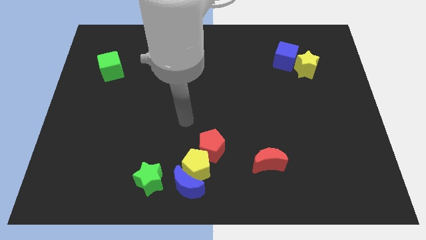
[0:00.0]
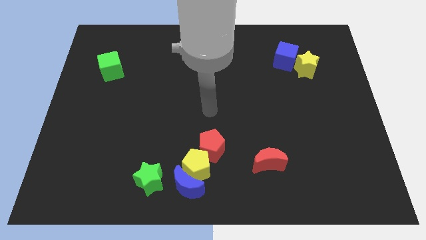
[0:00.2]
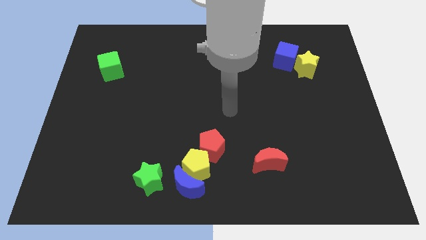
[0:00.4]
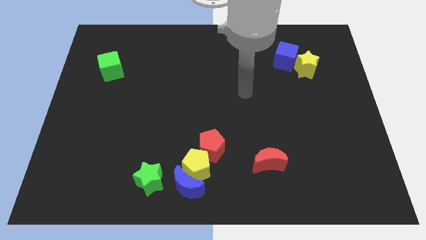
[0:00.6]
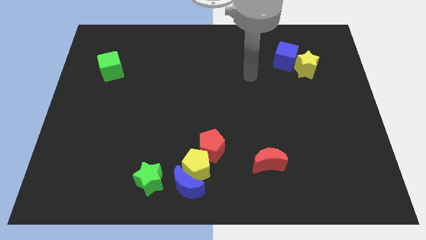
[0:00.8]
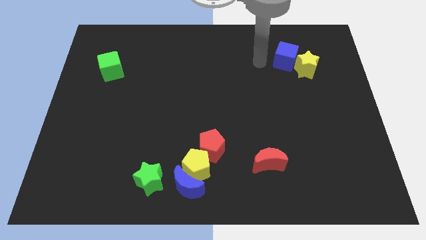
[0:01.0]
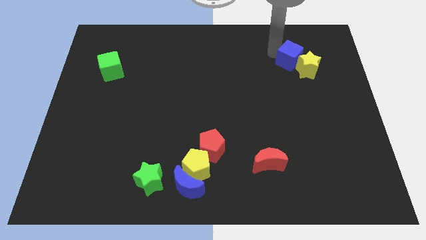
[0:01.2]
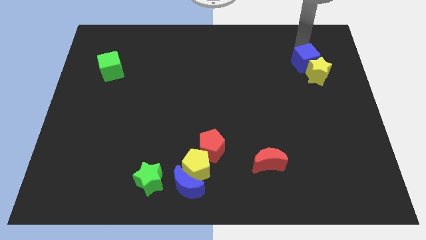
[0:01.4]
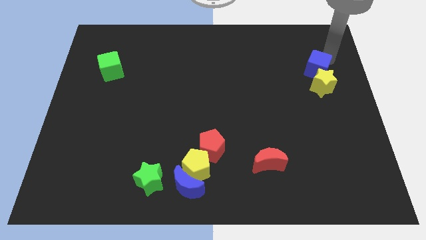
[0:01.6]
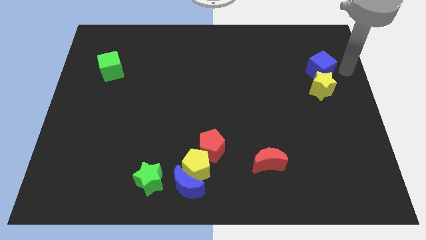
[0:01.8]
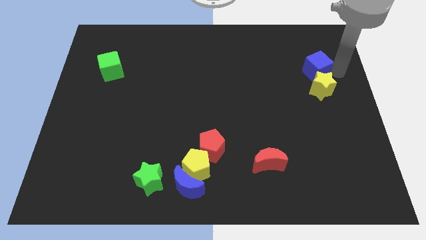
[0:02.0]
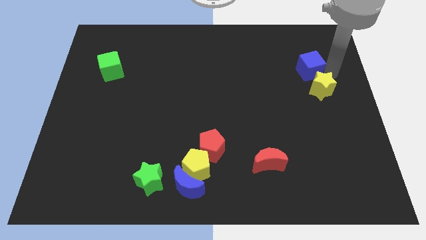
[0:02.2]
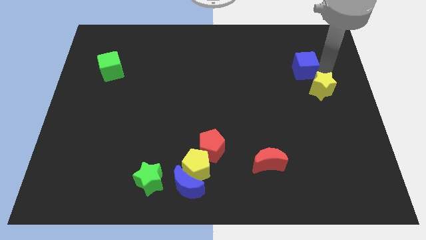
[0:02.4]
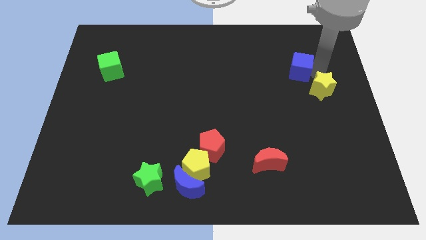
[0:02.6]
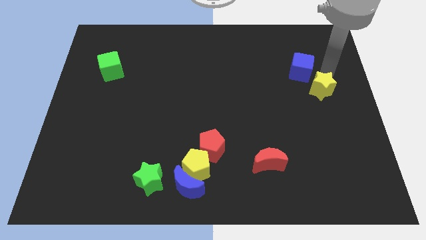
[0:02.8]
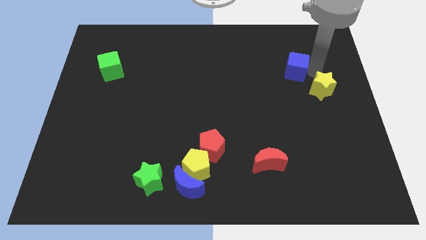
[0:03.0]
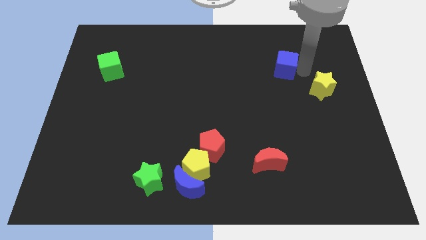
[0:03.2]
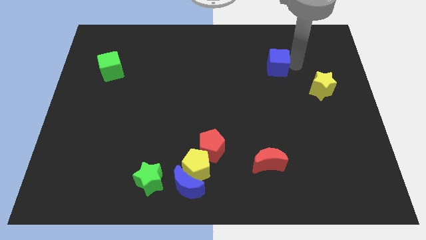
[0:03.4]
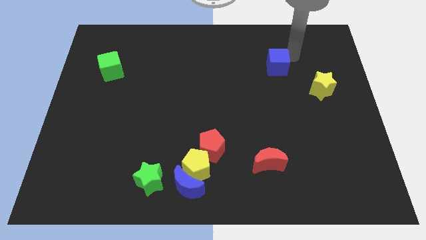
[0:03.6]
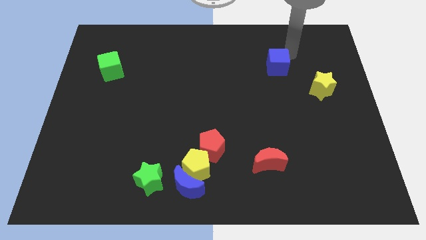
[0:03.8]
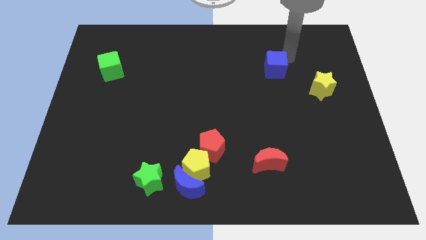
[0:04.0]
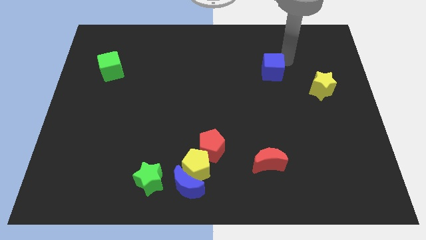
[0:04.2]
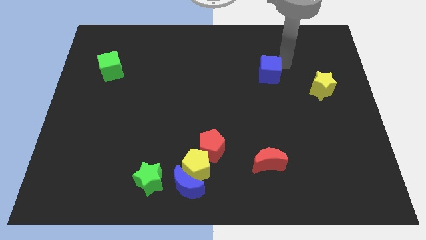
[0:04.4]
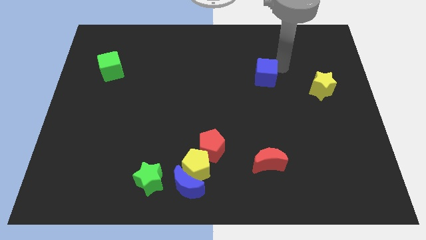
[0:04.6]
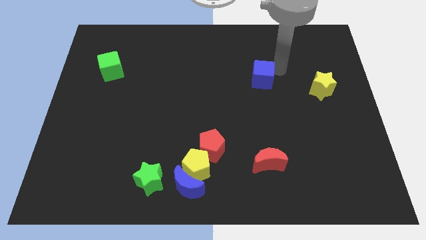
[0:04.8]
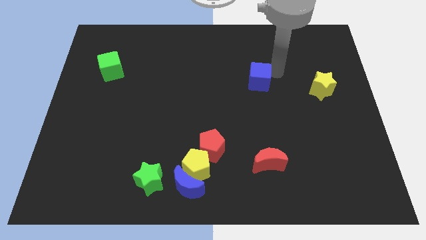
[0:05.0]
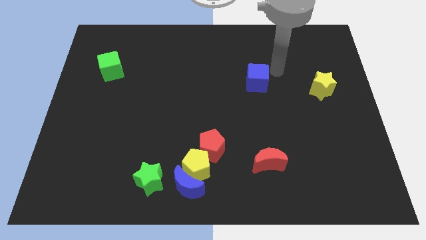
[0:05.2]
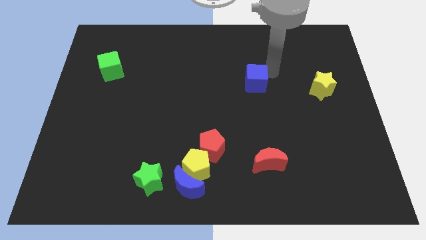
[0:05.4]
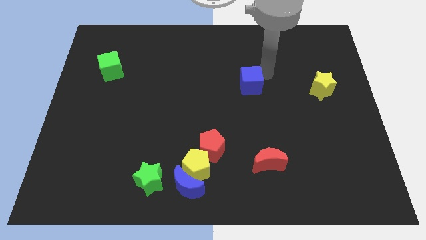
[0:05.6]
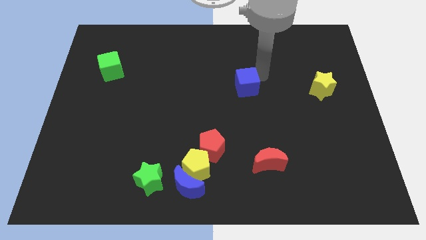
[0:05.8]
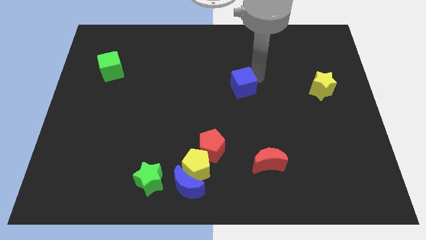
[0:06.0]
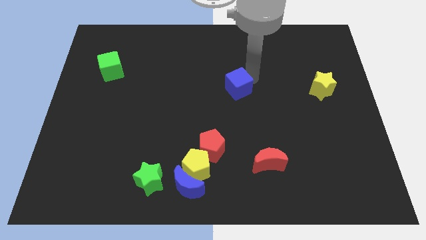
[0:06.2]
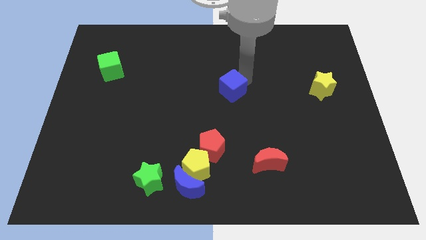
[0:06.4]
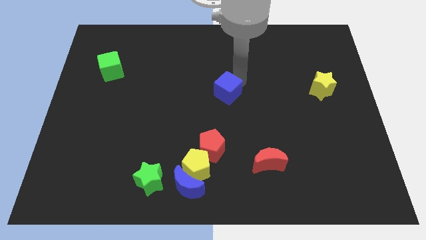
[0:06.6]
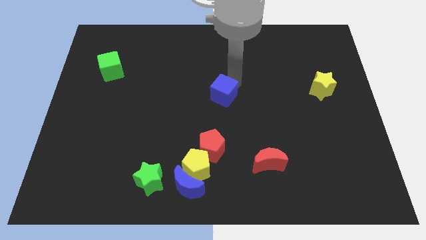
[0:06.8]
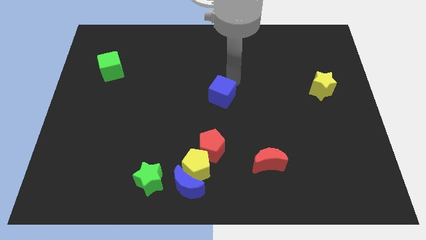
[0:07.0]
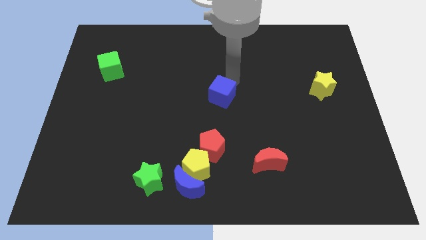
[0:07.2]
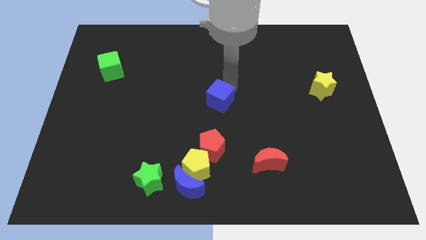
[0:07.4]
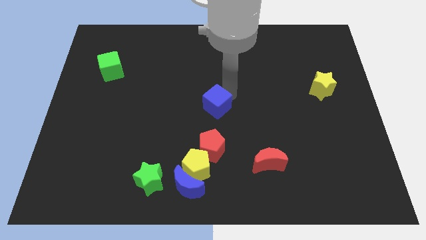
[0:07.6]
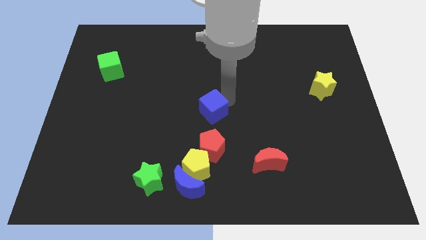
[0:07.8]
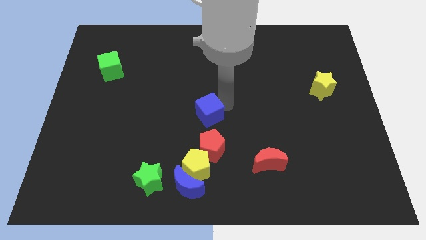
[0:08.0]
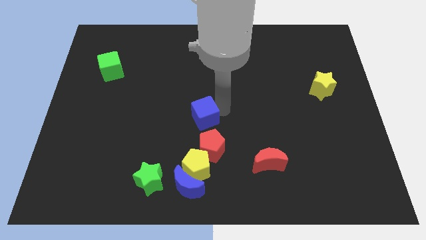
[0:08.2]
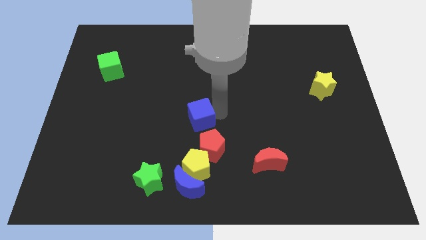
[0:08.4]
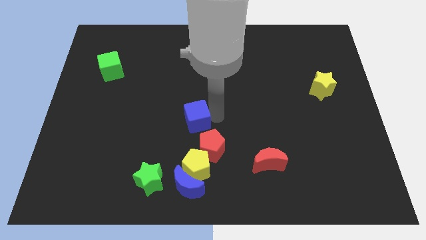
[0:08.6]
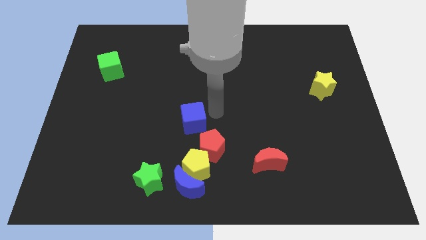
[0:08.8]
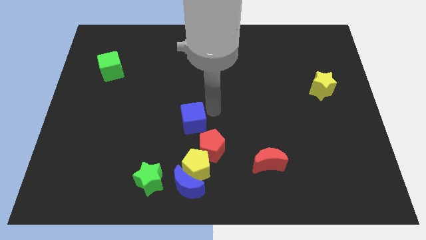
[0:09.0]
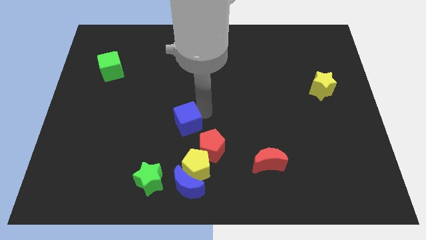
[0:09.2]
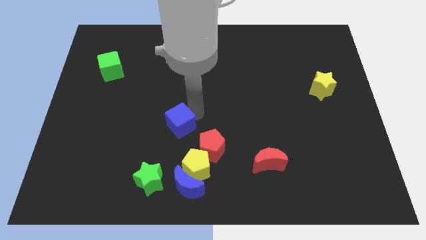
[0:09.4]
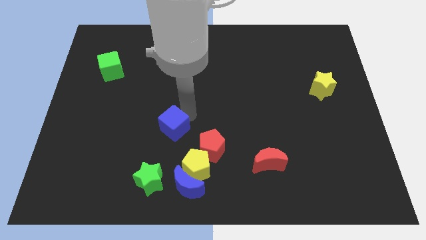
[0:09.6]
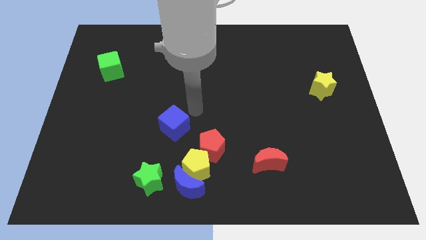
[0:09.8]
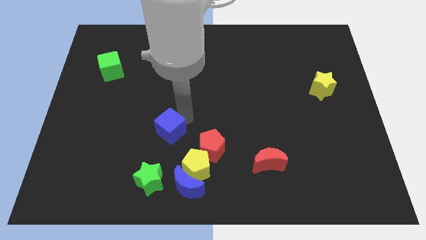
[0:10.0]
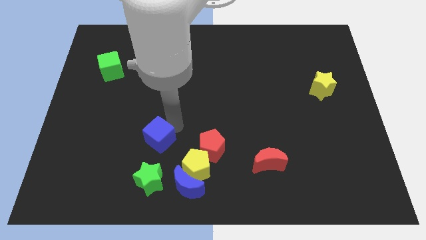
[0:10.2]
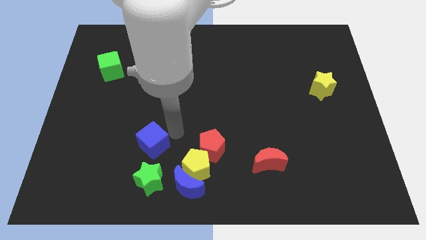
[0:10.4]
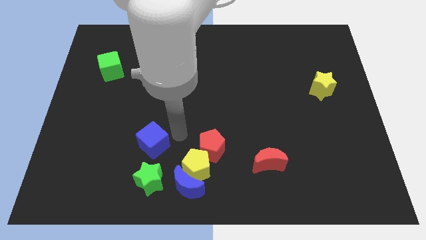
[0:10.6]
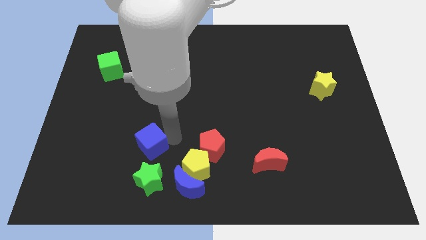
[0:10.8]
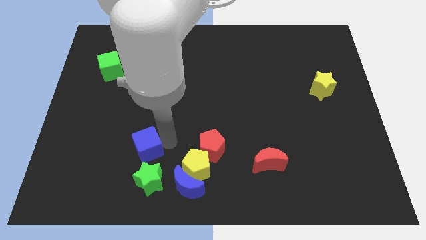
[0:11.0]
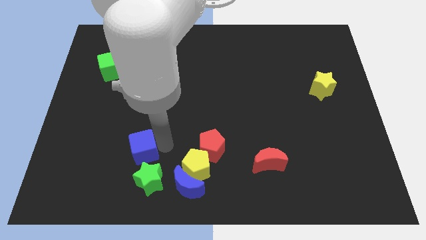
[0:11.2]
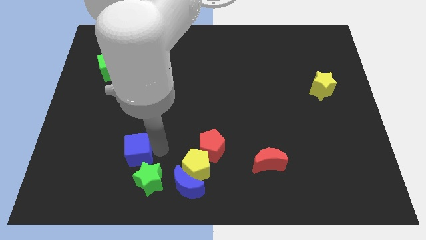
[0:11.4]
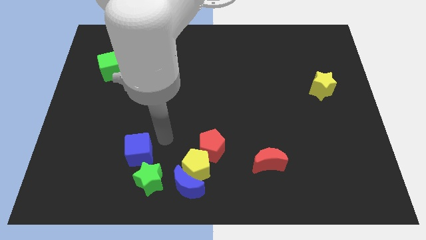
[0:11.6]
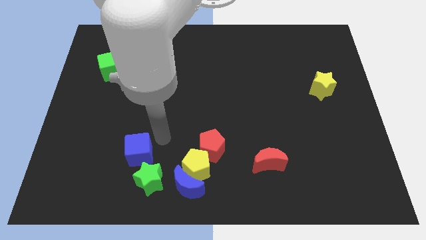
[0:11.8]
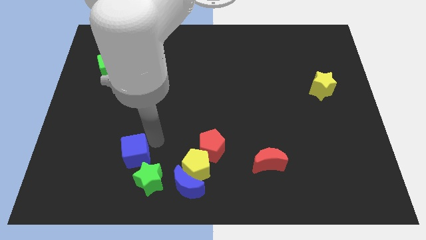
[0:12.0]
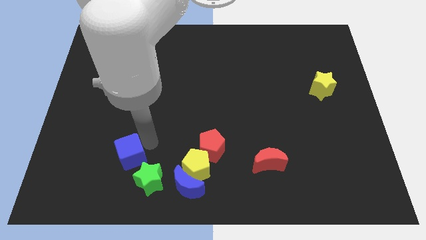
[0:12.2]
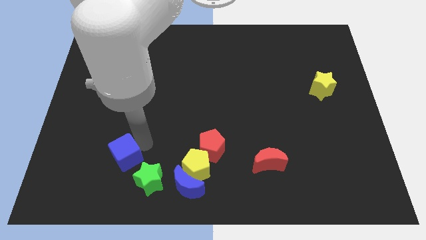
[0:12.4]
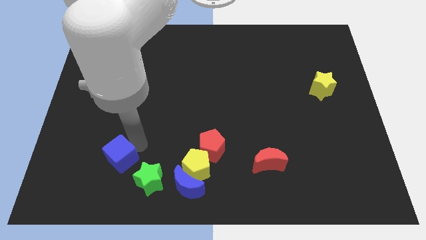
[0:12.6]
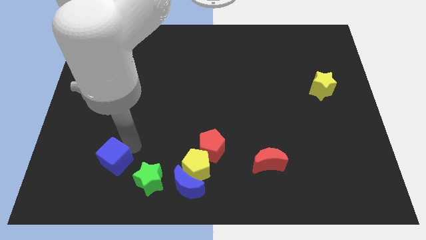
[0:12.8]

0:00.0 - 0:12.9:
put the blue cube to the left side of the green star

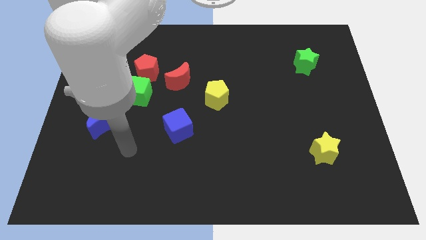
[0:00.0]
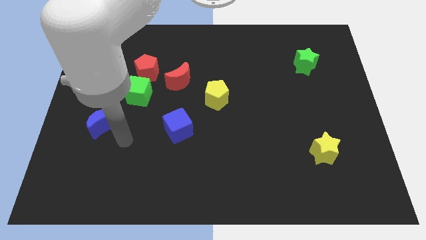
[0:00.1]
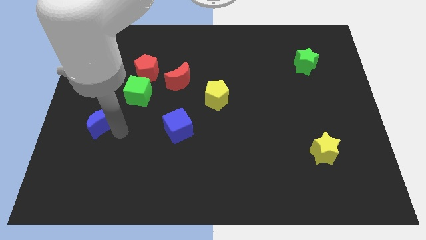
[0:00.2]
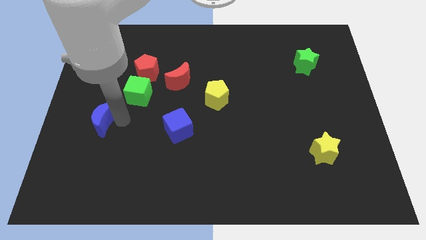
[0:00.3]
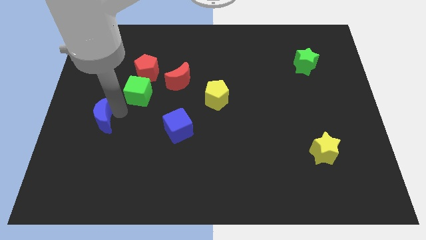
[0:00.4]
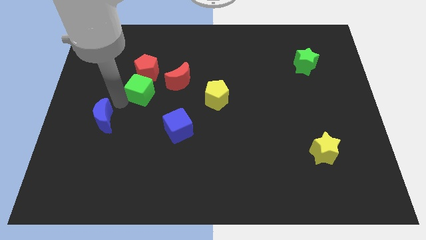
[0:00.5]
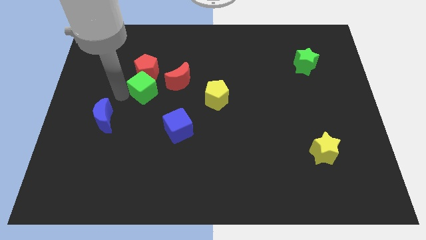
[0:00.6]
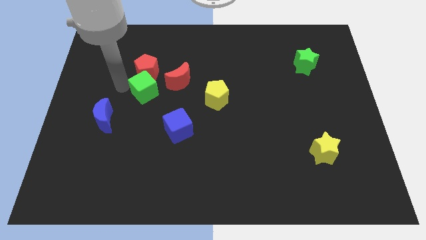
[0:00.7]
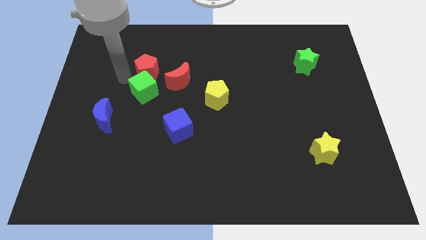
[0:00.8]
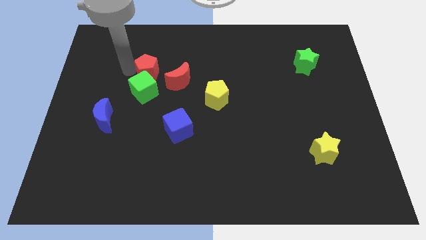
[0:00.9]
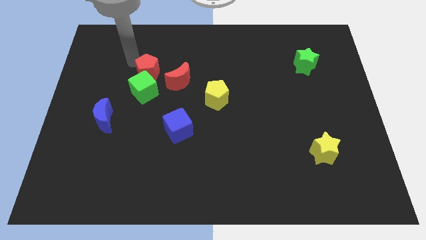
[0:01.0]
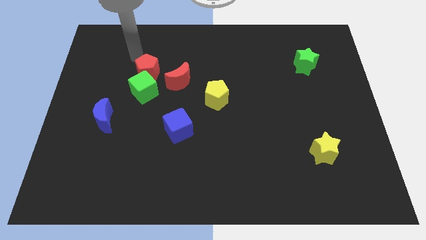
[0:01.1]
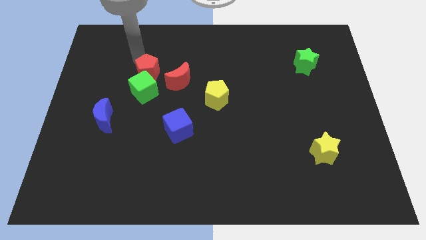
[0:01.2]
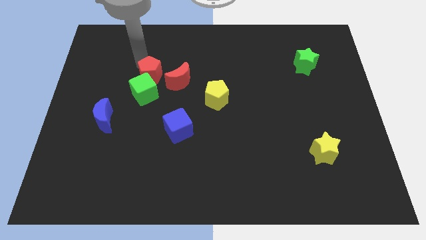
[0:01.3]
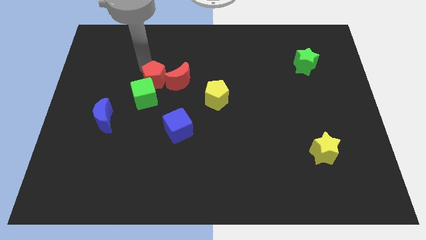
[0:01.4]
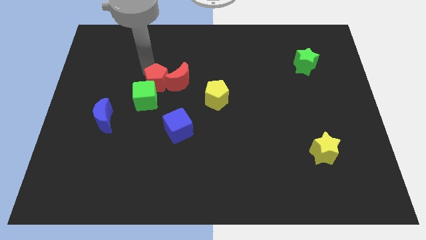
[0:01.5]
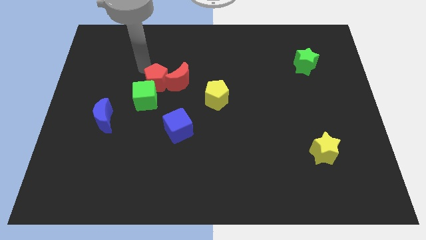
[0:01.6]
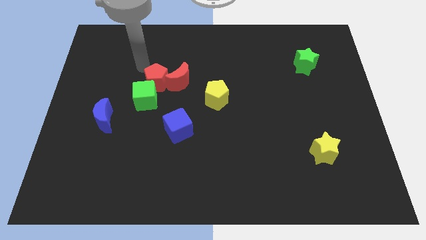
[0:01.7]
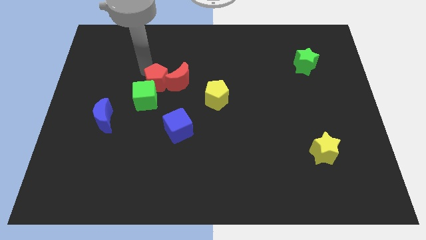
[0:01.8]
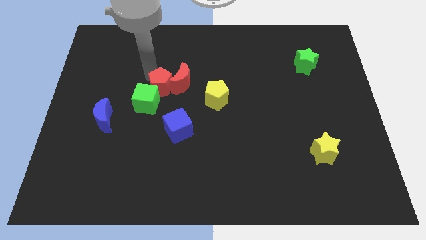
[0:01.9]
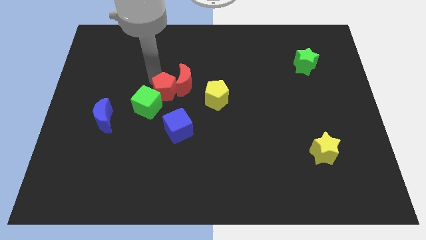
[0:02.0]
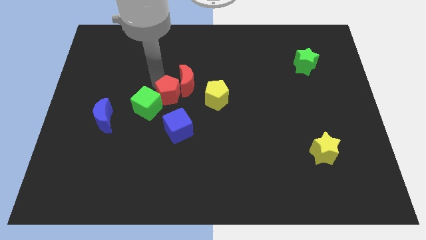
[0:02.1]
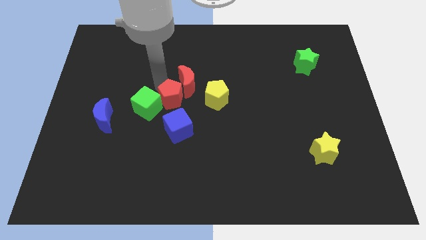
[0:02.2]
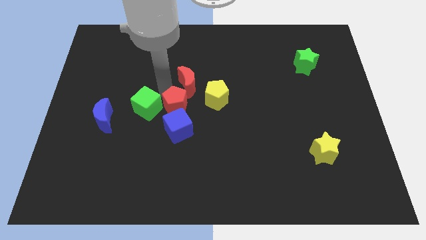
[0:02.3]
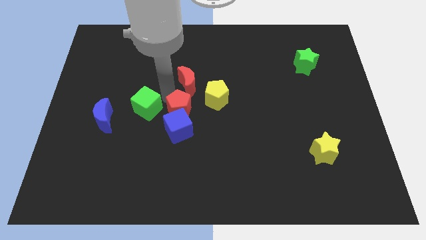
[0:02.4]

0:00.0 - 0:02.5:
slide the red pentagon to the bottom left of the yellow pentagon
